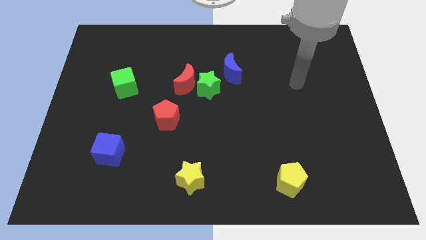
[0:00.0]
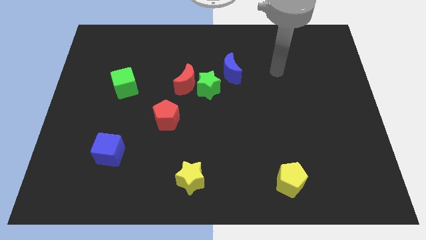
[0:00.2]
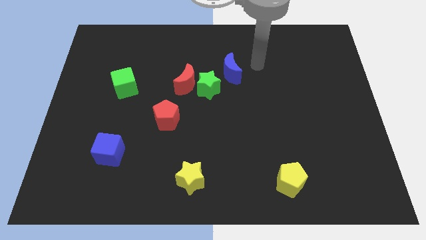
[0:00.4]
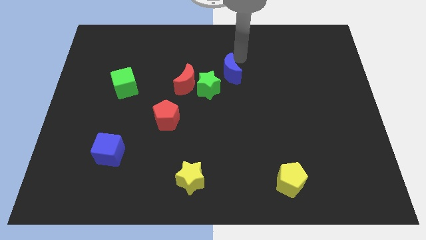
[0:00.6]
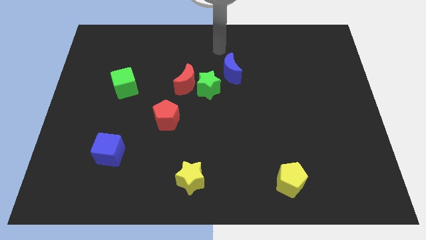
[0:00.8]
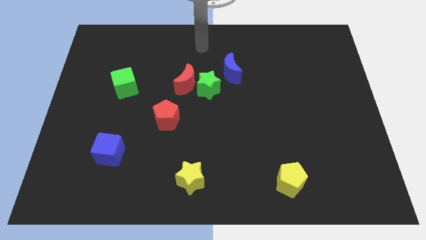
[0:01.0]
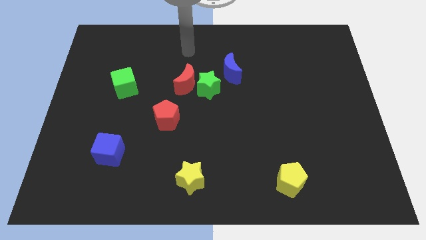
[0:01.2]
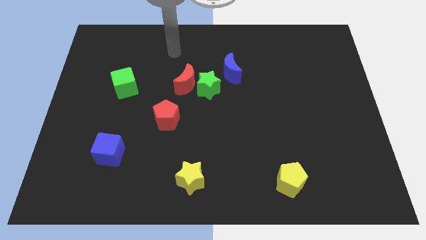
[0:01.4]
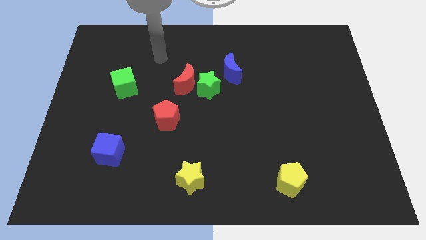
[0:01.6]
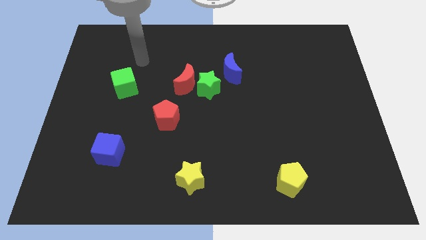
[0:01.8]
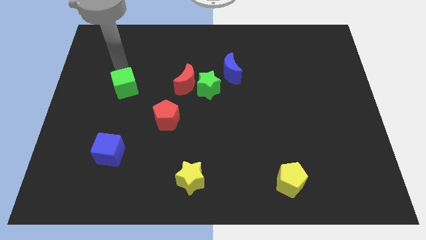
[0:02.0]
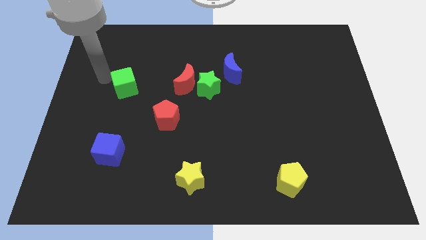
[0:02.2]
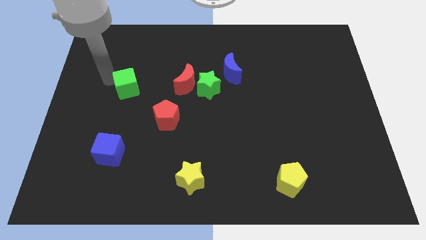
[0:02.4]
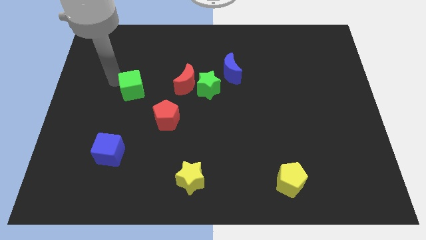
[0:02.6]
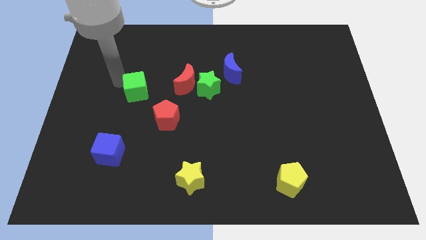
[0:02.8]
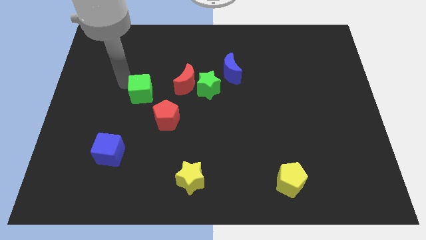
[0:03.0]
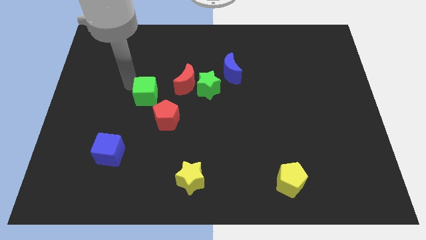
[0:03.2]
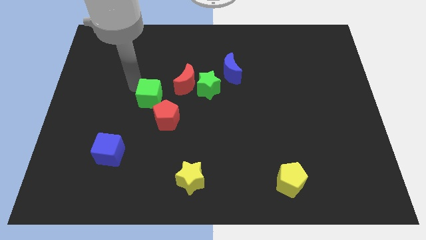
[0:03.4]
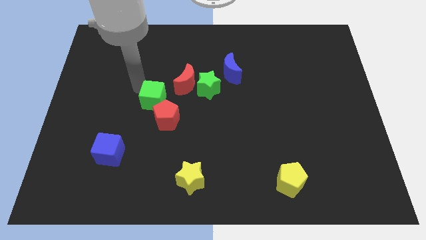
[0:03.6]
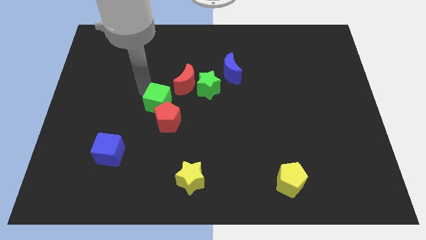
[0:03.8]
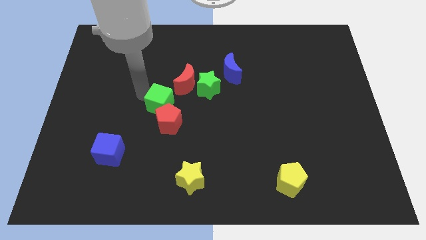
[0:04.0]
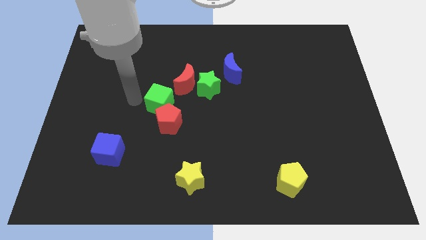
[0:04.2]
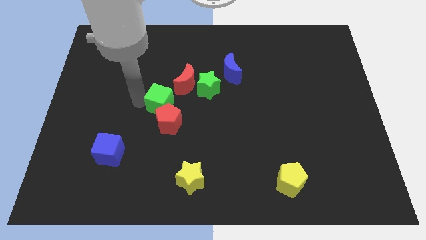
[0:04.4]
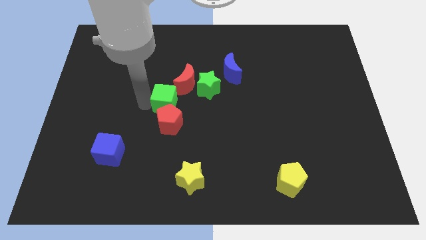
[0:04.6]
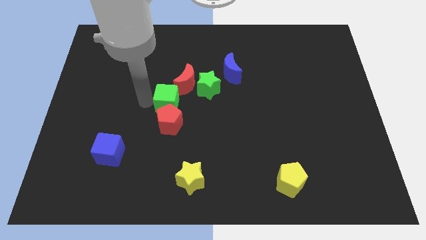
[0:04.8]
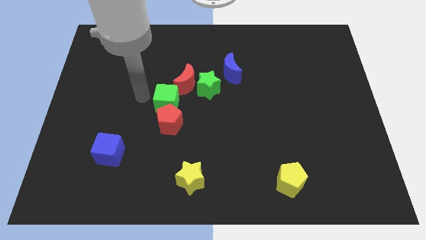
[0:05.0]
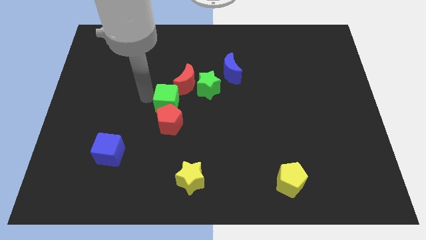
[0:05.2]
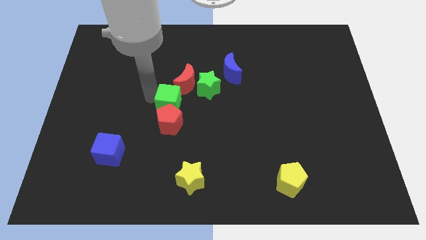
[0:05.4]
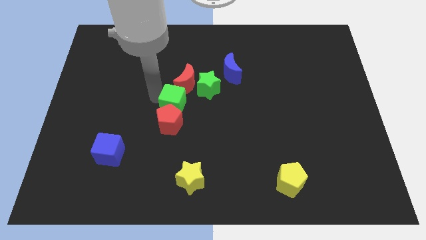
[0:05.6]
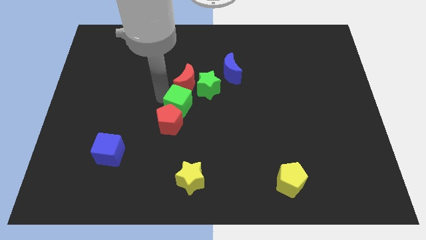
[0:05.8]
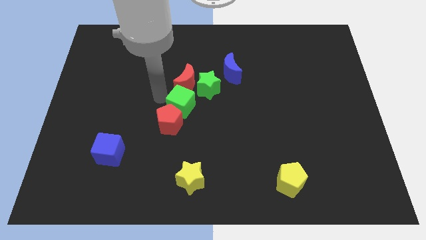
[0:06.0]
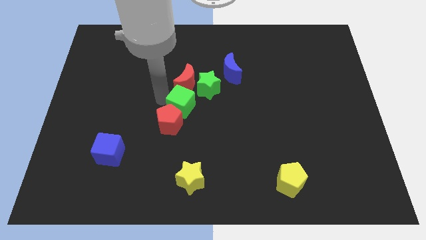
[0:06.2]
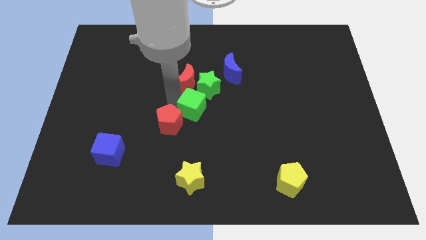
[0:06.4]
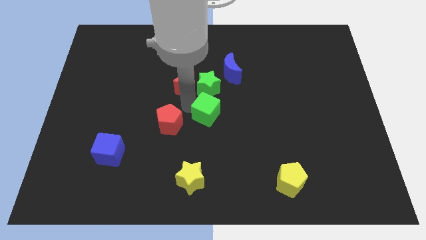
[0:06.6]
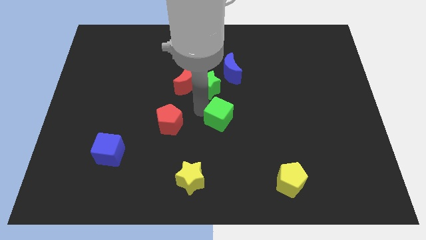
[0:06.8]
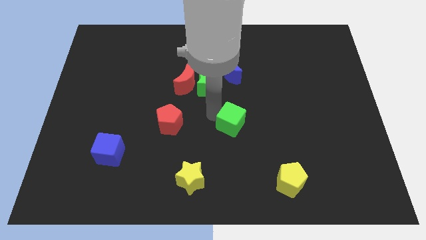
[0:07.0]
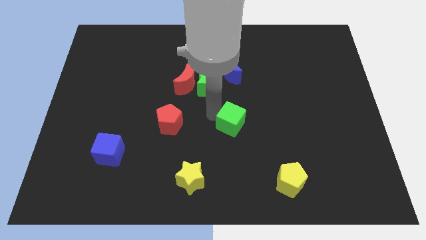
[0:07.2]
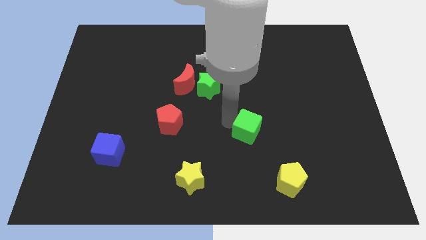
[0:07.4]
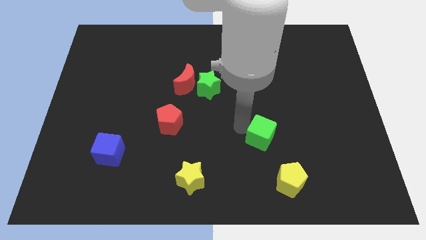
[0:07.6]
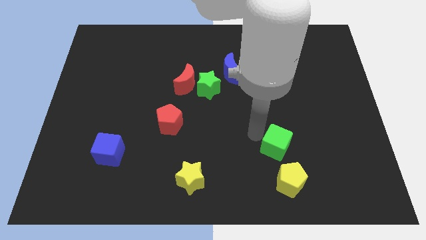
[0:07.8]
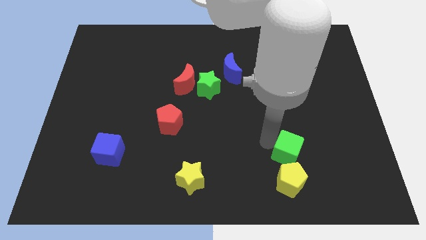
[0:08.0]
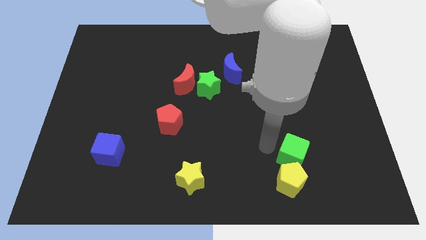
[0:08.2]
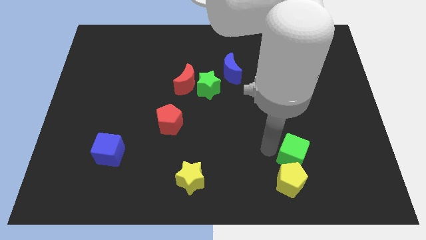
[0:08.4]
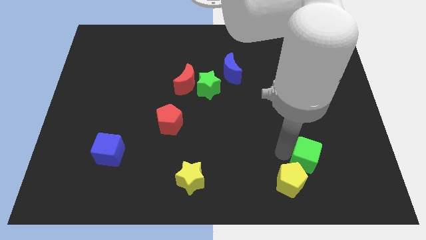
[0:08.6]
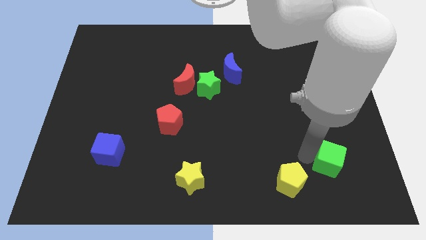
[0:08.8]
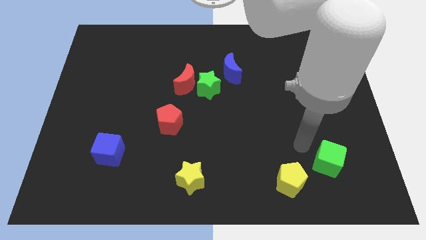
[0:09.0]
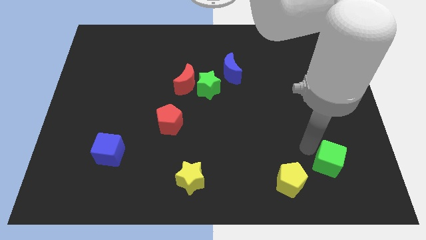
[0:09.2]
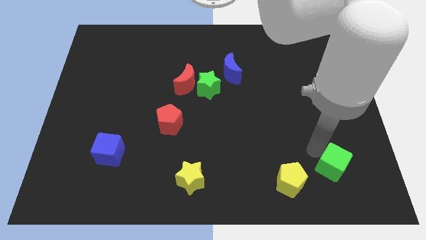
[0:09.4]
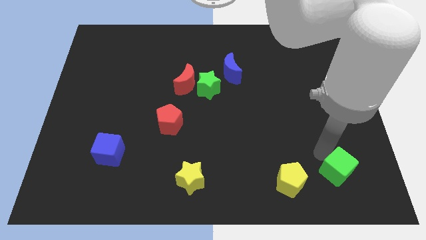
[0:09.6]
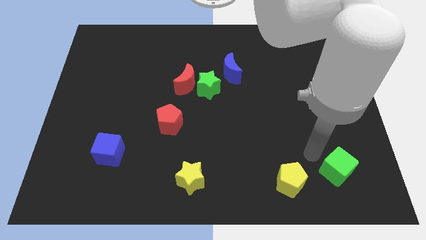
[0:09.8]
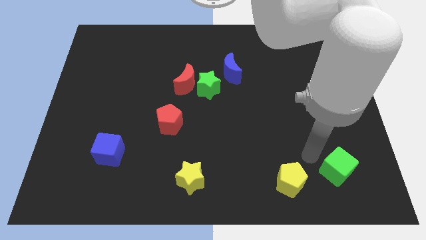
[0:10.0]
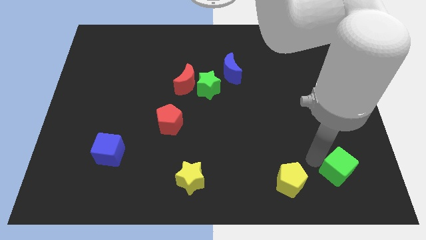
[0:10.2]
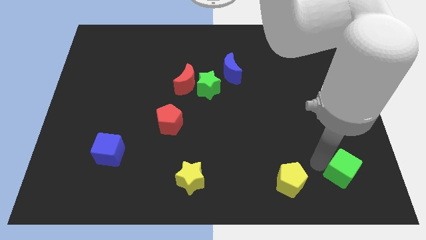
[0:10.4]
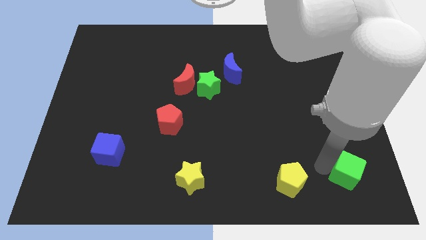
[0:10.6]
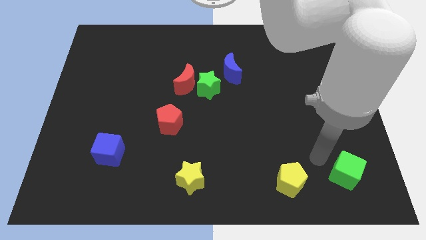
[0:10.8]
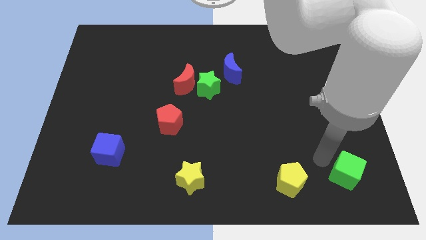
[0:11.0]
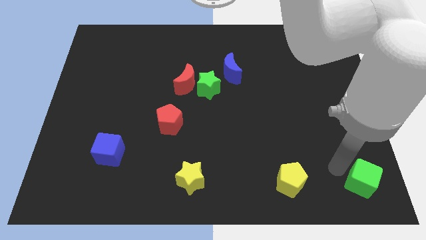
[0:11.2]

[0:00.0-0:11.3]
slide the green cube to the bottom right

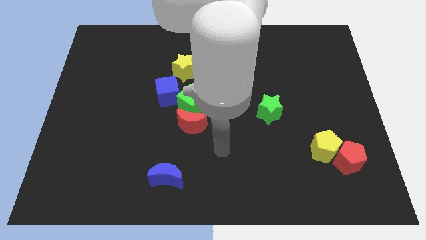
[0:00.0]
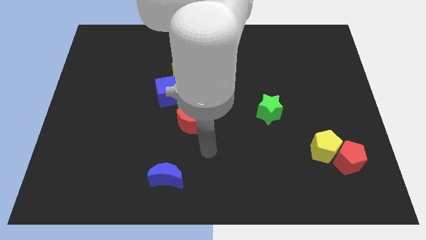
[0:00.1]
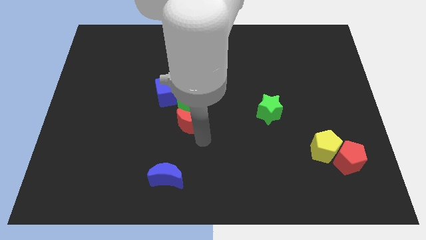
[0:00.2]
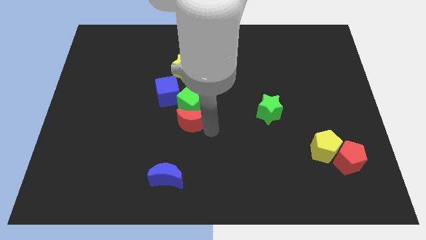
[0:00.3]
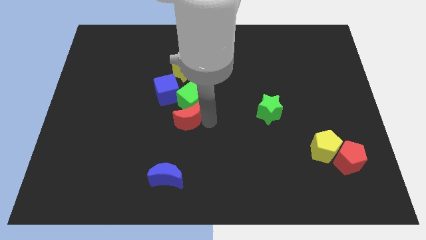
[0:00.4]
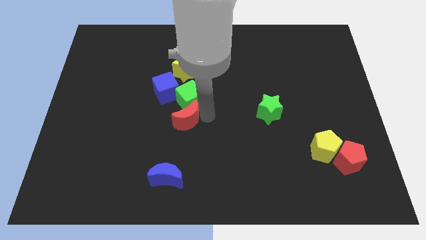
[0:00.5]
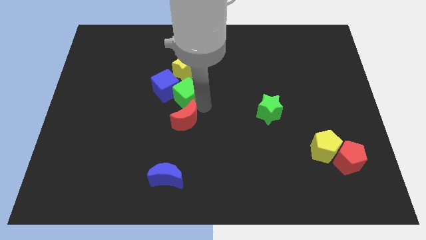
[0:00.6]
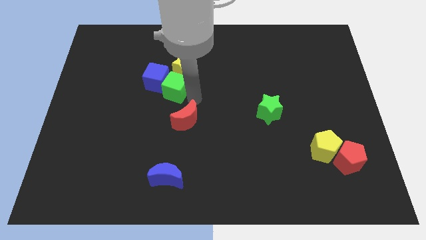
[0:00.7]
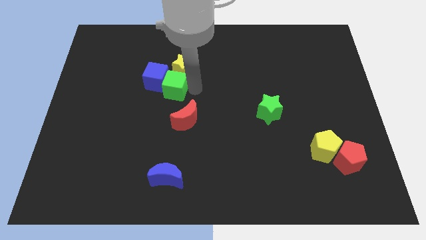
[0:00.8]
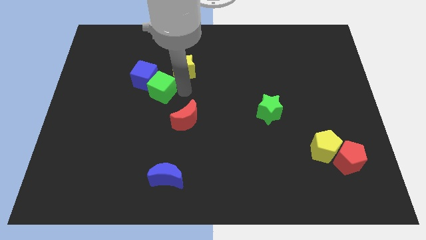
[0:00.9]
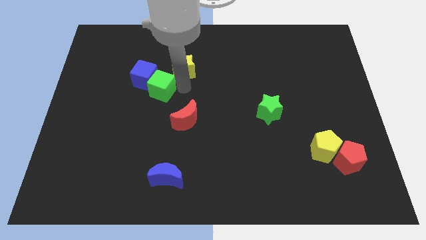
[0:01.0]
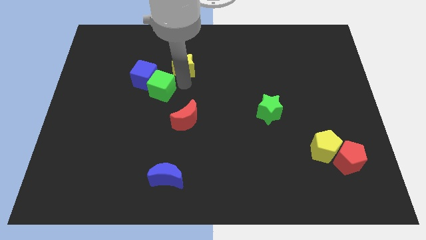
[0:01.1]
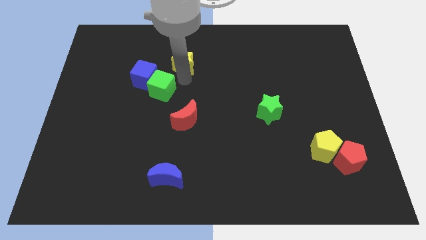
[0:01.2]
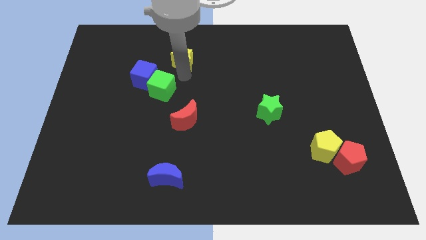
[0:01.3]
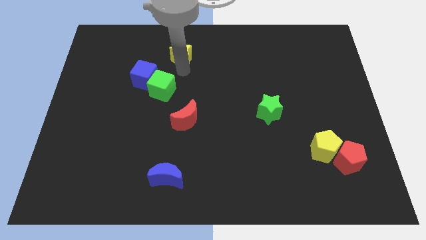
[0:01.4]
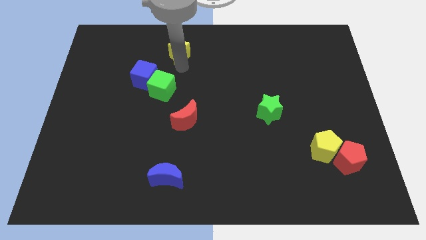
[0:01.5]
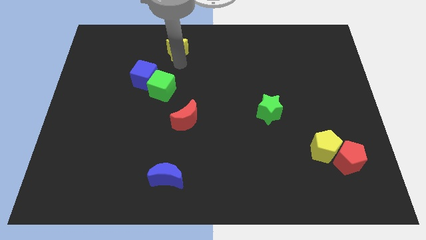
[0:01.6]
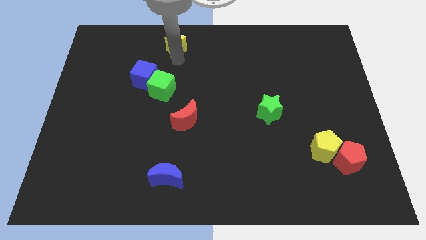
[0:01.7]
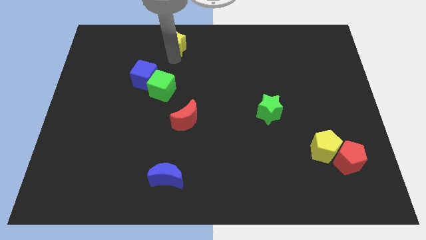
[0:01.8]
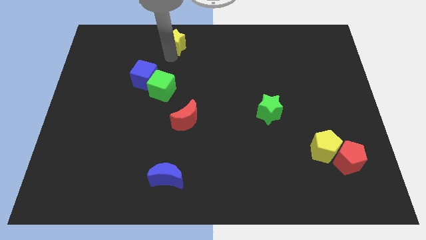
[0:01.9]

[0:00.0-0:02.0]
push the yellow star to the top
